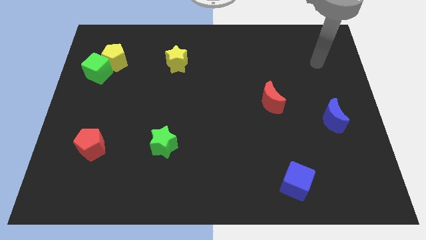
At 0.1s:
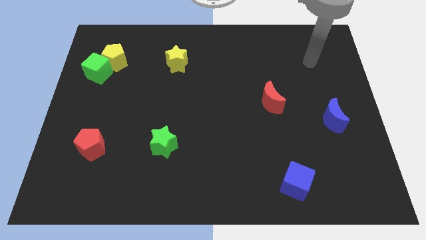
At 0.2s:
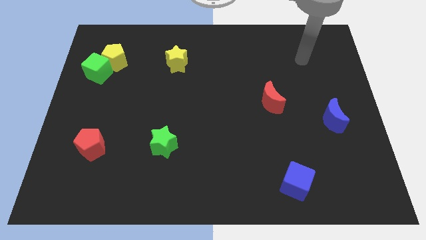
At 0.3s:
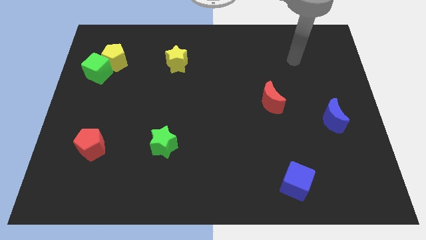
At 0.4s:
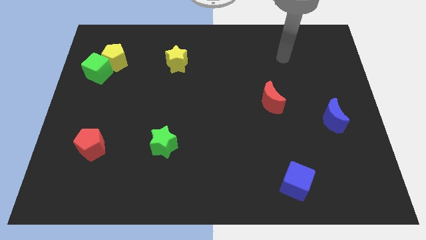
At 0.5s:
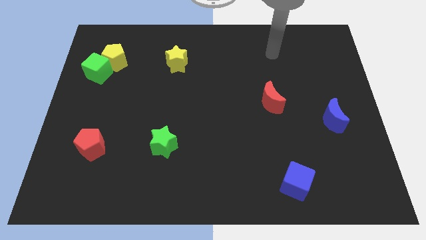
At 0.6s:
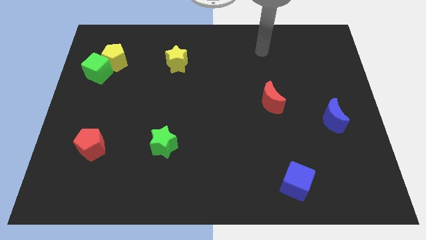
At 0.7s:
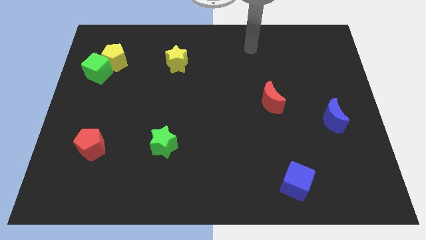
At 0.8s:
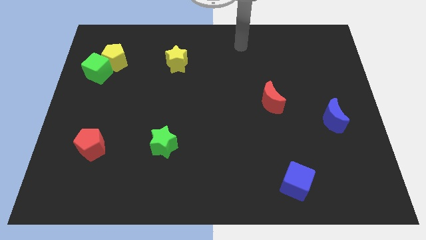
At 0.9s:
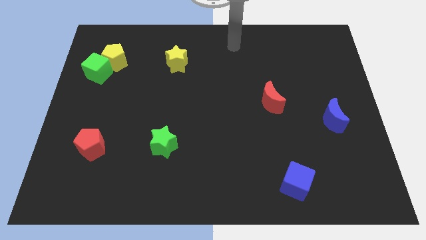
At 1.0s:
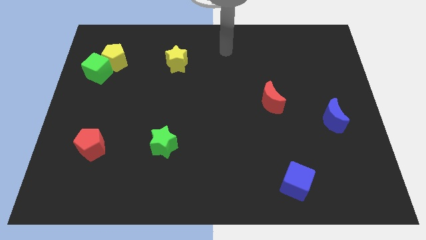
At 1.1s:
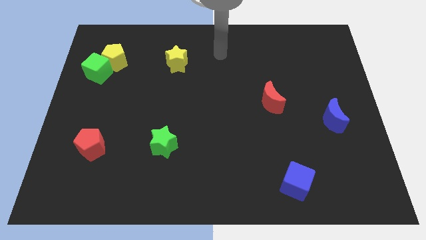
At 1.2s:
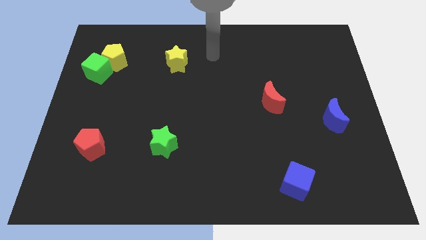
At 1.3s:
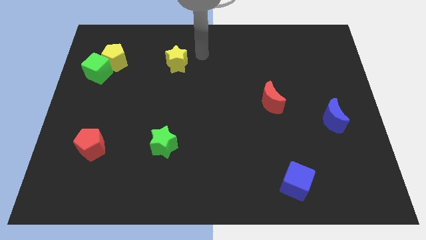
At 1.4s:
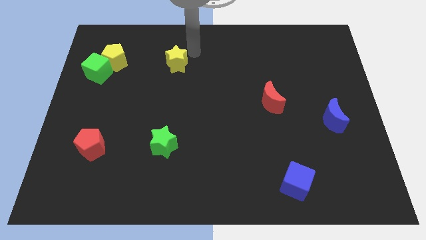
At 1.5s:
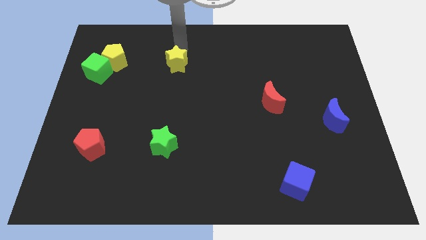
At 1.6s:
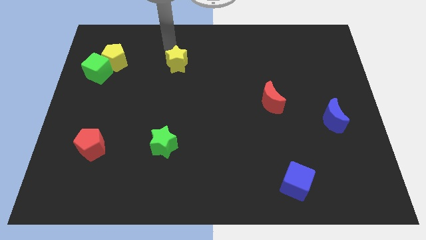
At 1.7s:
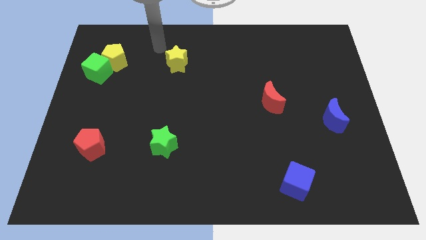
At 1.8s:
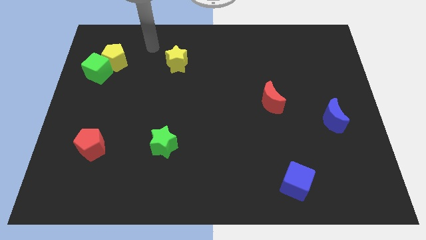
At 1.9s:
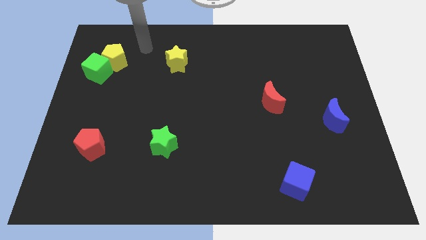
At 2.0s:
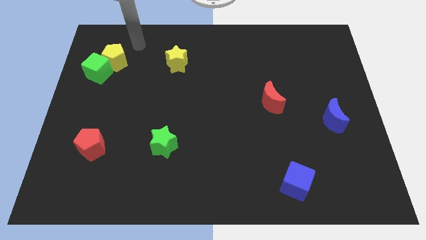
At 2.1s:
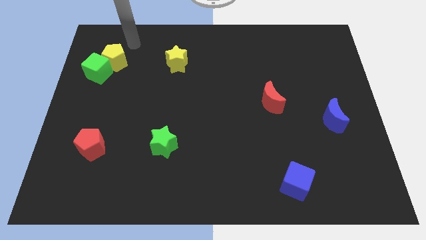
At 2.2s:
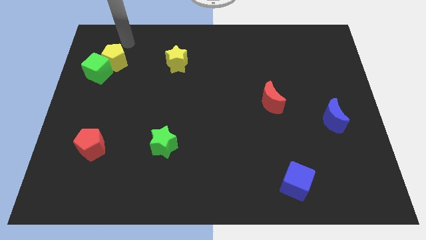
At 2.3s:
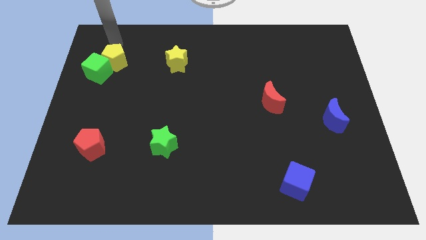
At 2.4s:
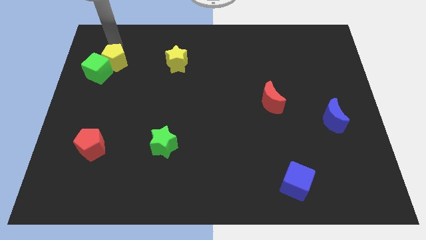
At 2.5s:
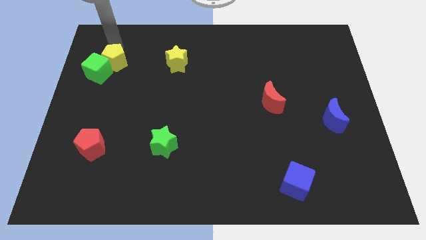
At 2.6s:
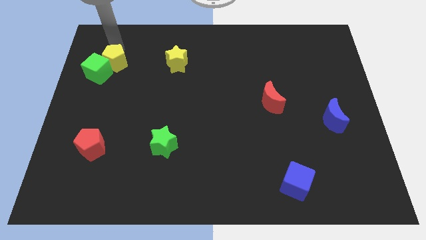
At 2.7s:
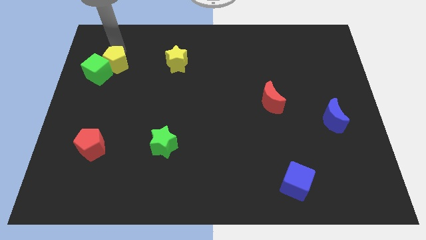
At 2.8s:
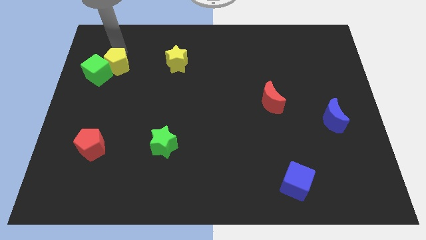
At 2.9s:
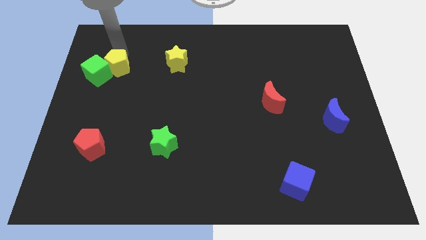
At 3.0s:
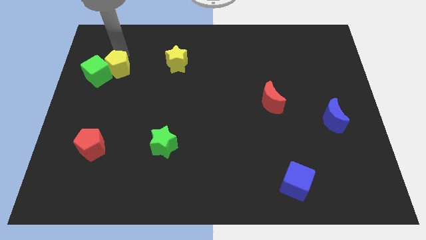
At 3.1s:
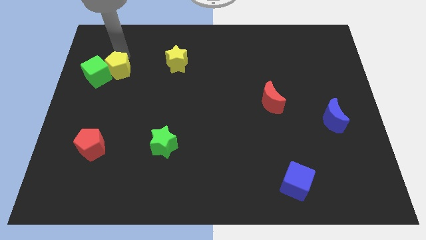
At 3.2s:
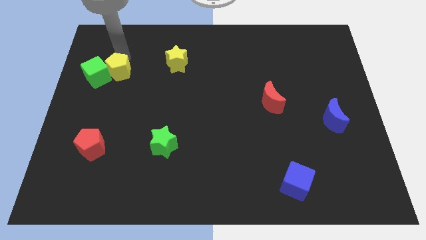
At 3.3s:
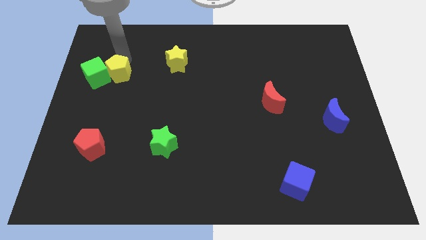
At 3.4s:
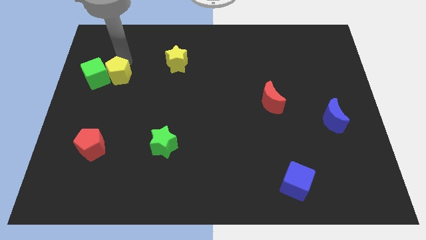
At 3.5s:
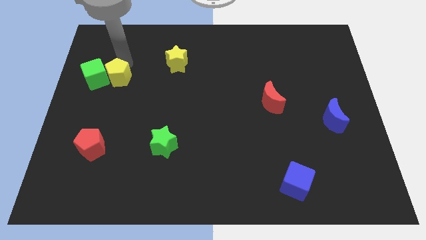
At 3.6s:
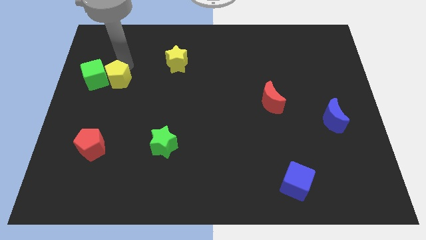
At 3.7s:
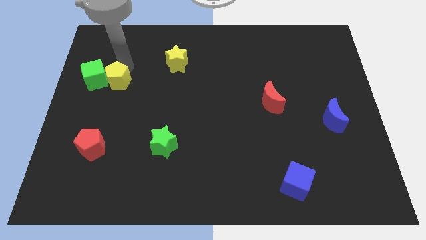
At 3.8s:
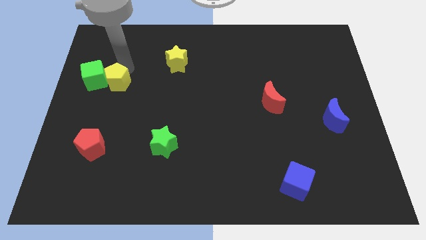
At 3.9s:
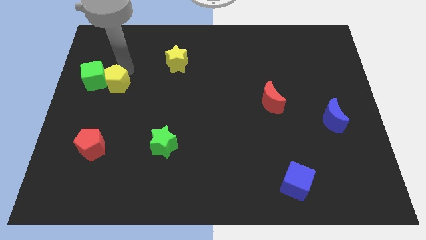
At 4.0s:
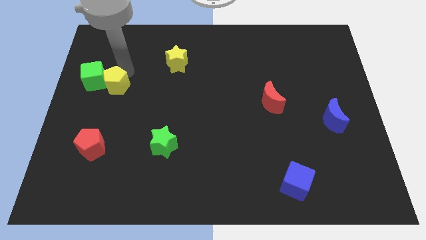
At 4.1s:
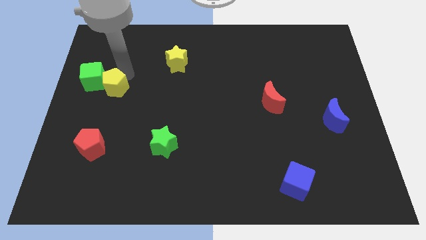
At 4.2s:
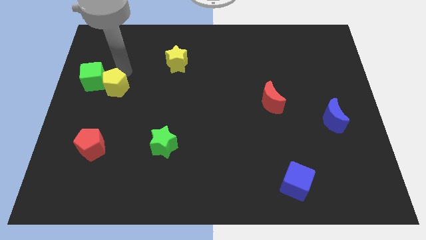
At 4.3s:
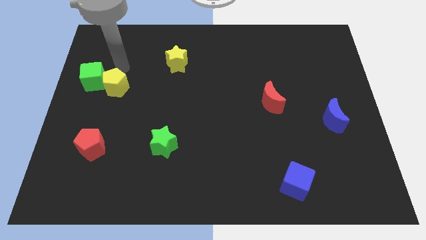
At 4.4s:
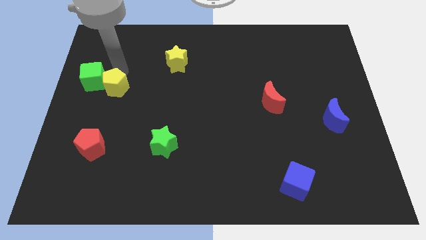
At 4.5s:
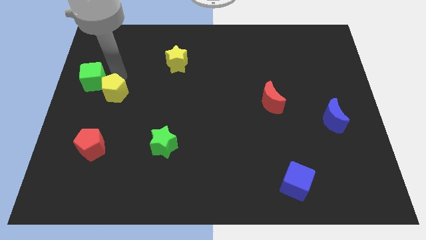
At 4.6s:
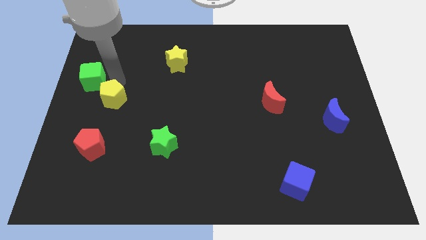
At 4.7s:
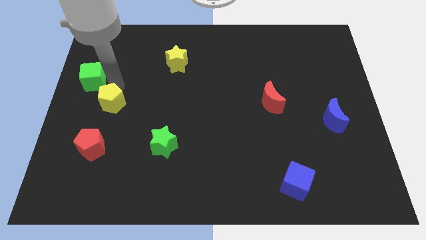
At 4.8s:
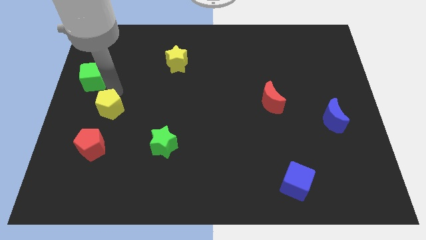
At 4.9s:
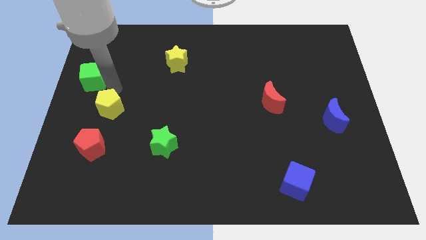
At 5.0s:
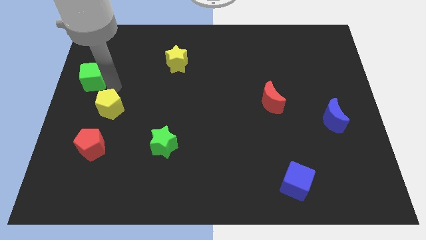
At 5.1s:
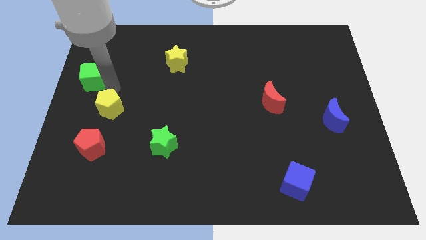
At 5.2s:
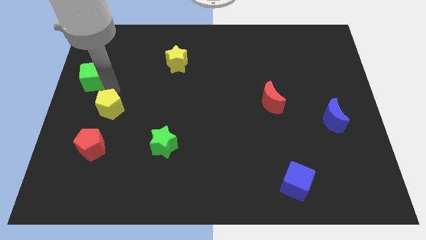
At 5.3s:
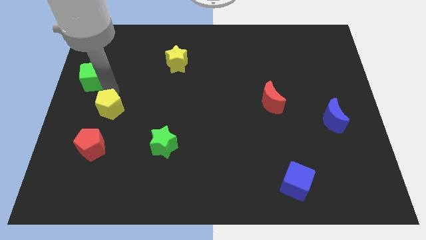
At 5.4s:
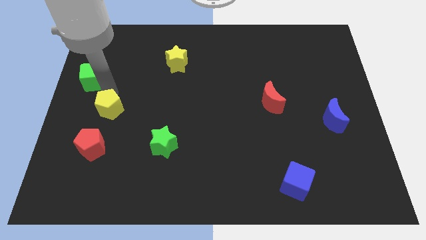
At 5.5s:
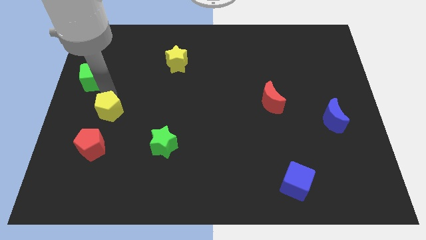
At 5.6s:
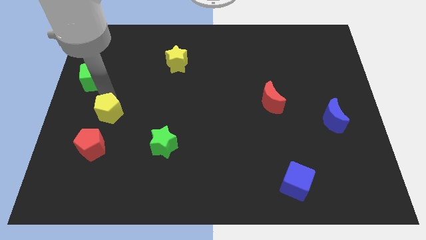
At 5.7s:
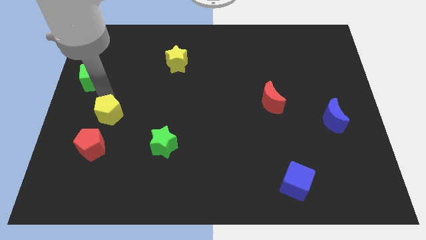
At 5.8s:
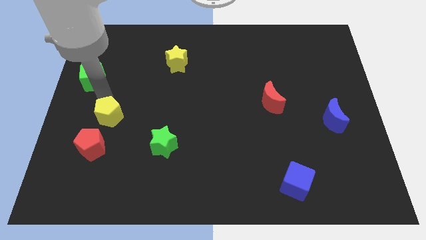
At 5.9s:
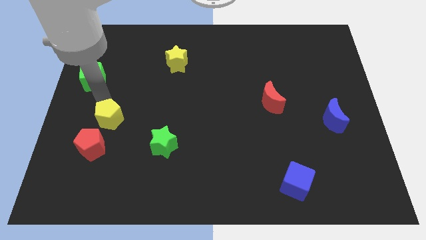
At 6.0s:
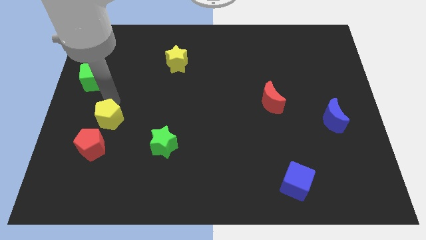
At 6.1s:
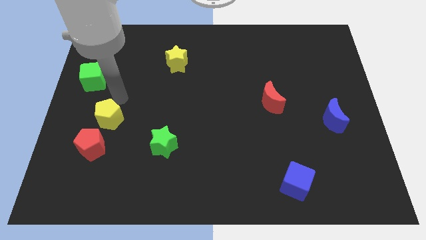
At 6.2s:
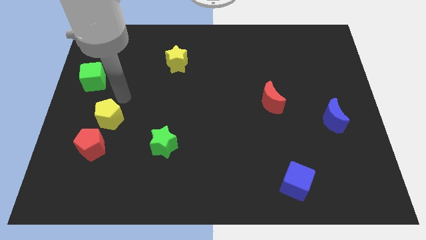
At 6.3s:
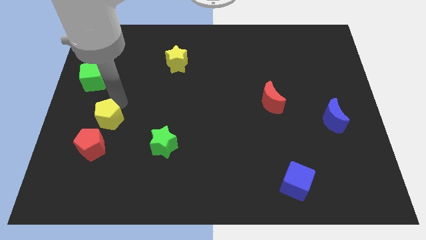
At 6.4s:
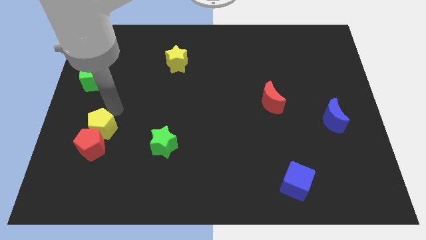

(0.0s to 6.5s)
slide the yellow pentagon to the red pentagon
